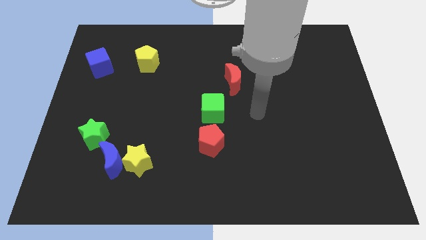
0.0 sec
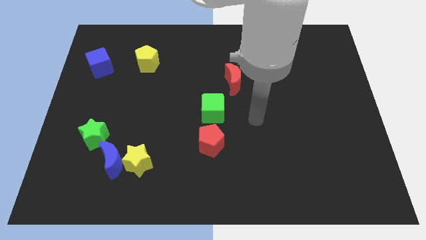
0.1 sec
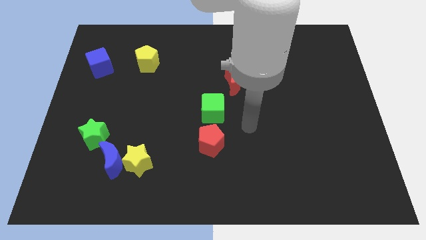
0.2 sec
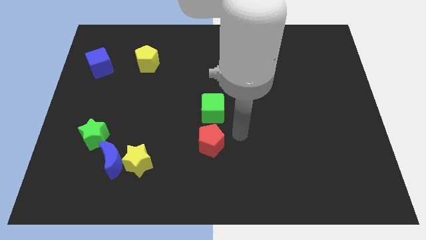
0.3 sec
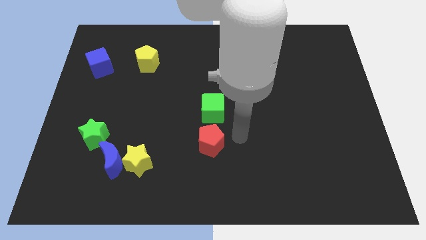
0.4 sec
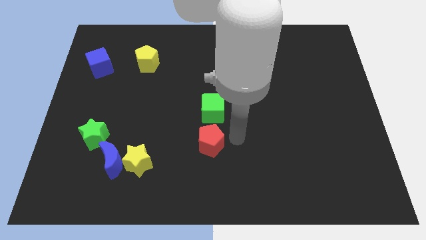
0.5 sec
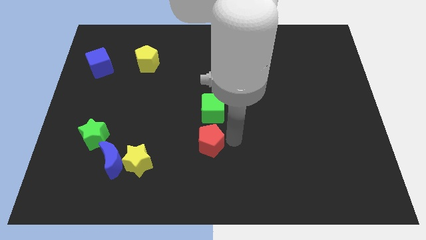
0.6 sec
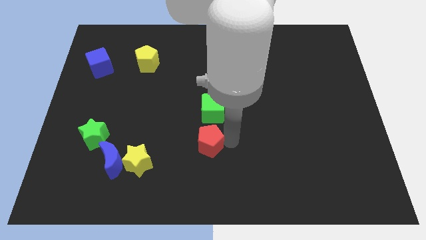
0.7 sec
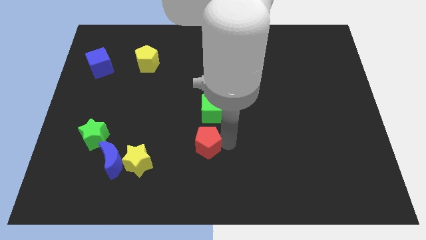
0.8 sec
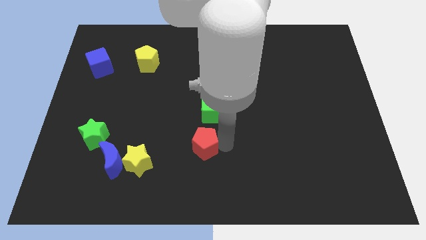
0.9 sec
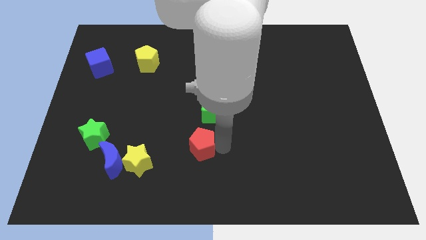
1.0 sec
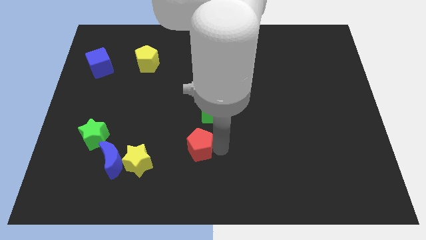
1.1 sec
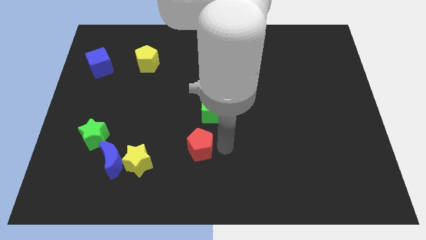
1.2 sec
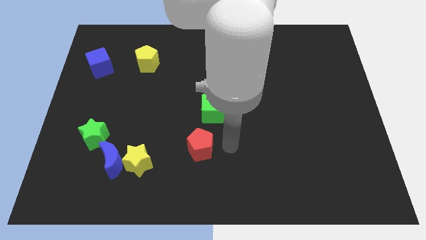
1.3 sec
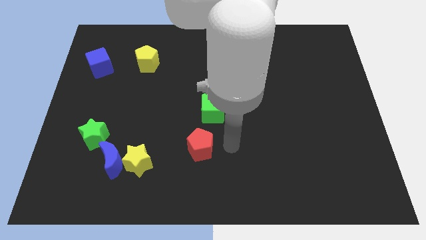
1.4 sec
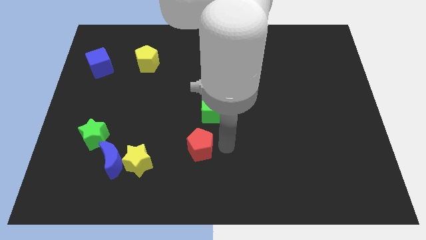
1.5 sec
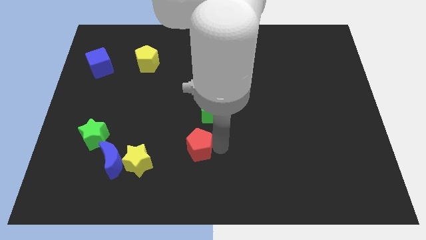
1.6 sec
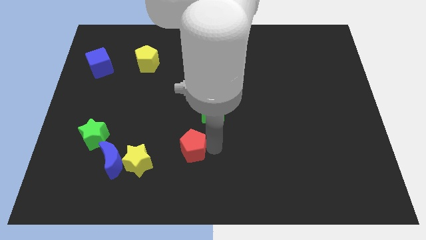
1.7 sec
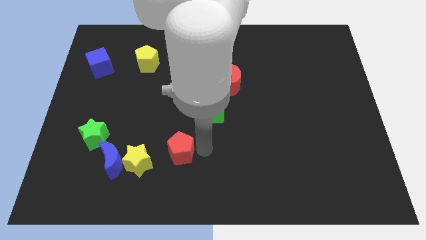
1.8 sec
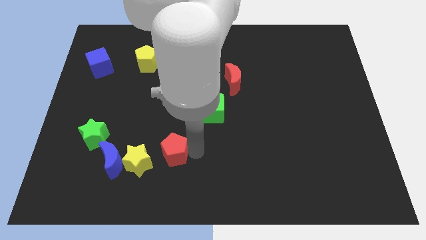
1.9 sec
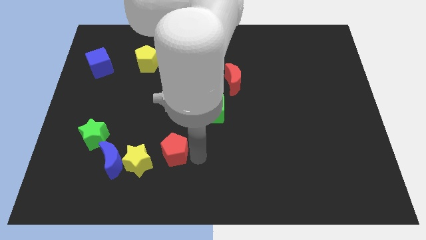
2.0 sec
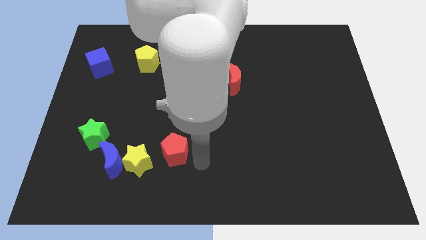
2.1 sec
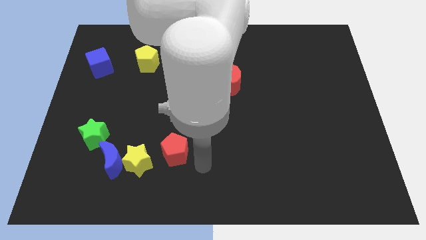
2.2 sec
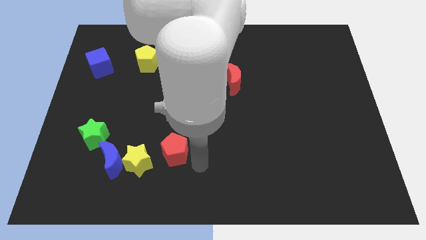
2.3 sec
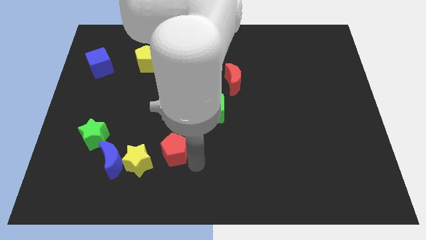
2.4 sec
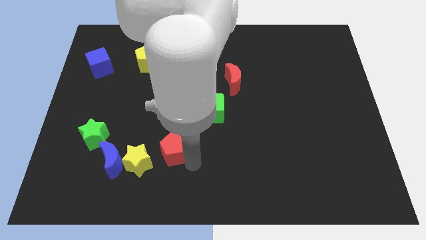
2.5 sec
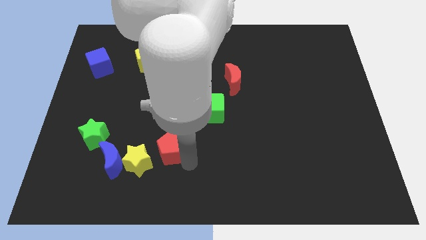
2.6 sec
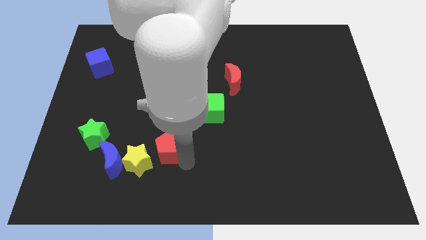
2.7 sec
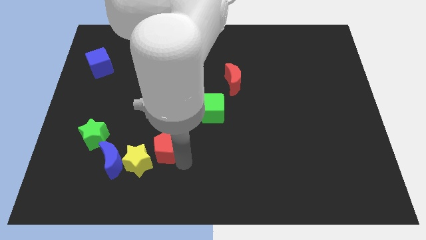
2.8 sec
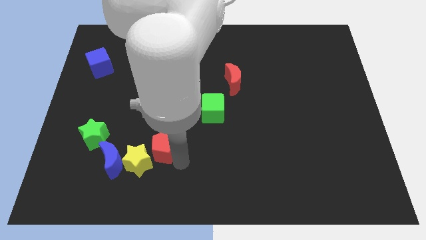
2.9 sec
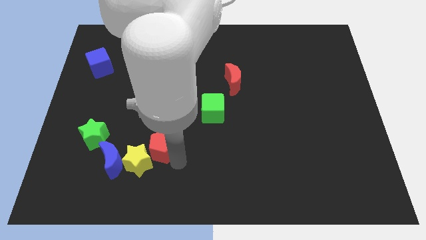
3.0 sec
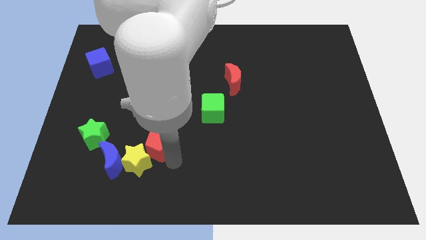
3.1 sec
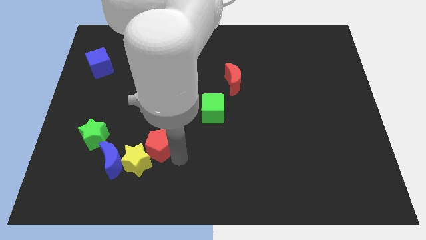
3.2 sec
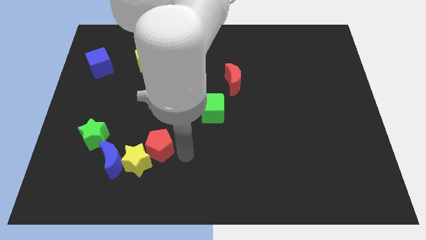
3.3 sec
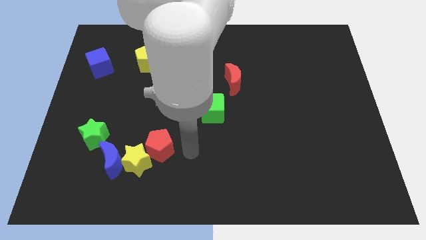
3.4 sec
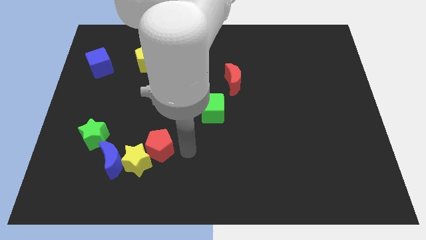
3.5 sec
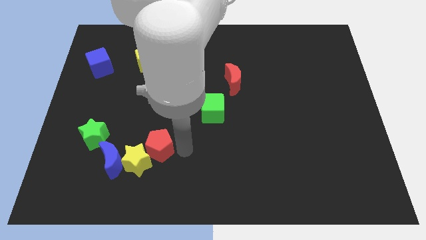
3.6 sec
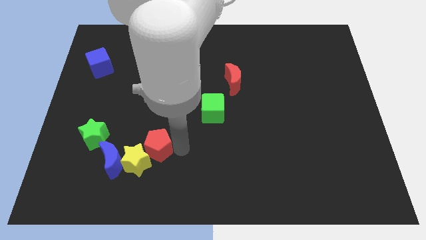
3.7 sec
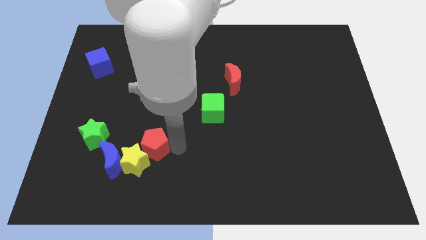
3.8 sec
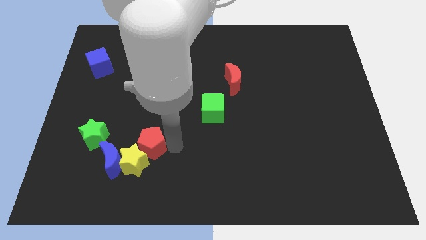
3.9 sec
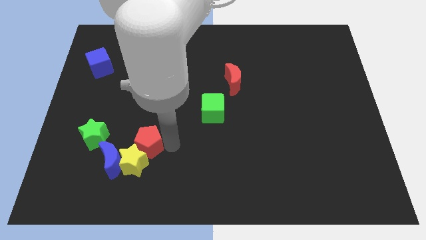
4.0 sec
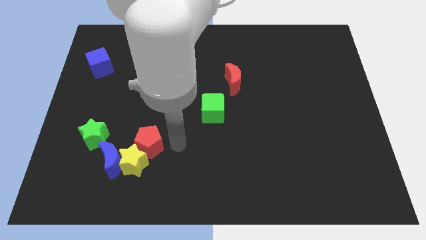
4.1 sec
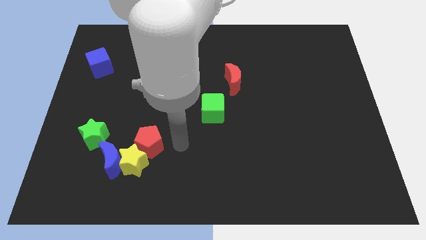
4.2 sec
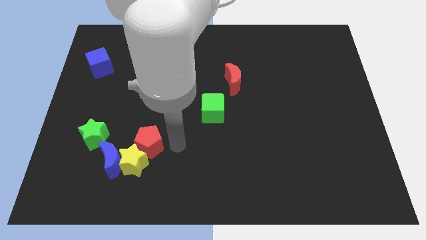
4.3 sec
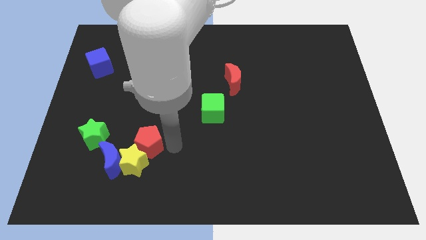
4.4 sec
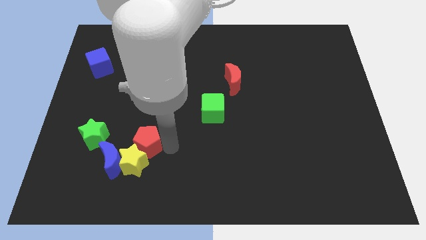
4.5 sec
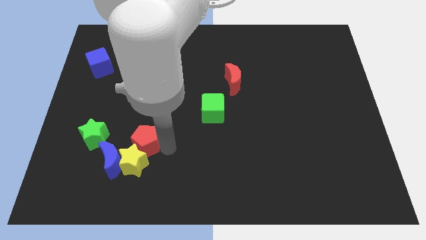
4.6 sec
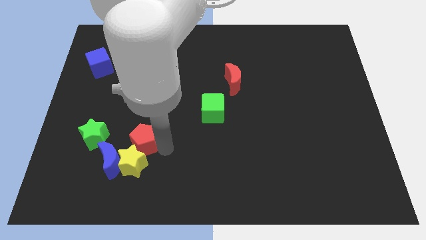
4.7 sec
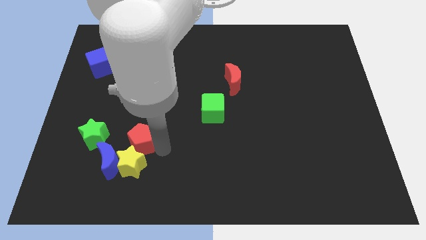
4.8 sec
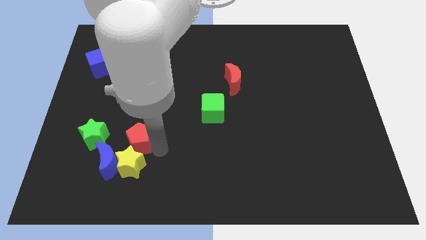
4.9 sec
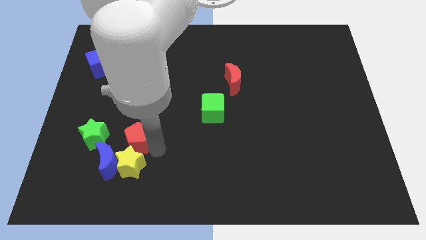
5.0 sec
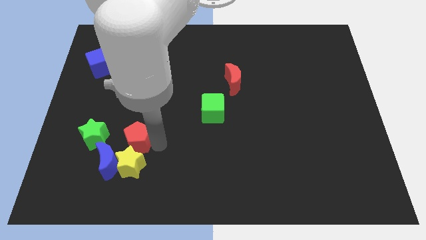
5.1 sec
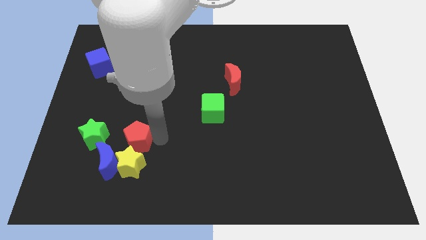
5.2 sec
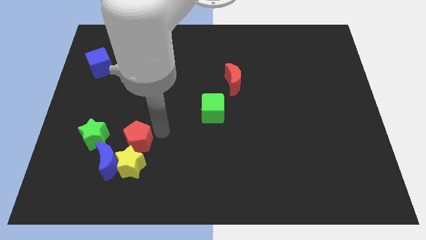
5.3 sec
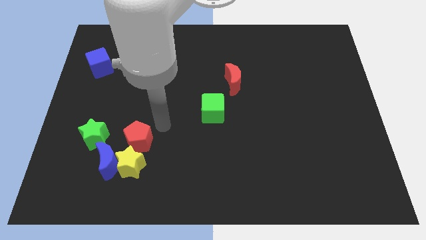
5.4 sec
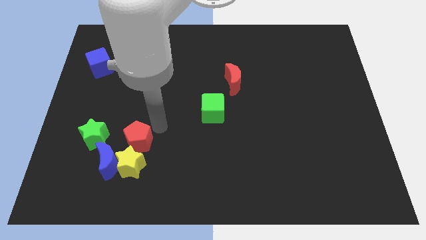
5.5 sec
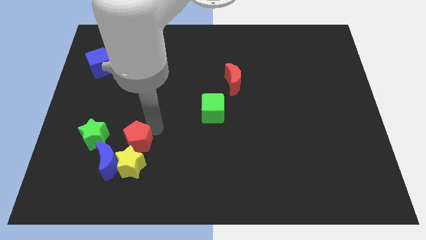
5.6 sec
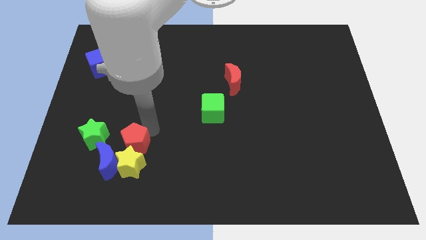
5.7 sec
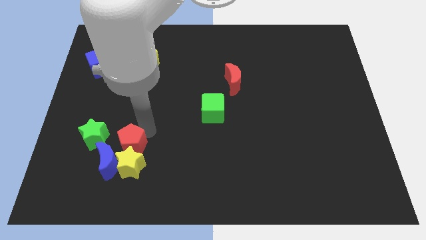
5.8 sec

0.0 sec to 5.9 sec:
slide the red pentagon next to the blue moon

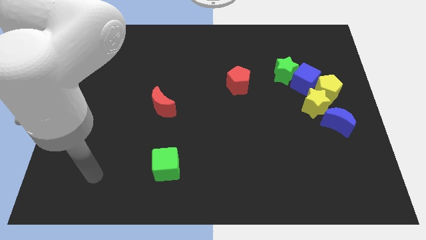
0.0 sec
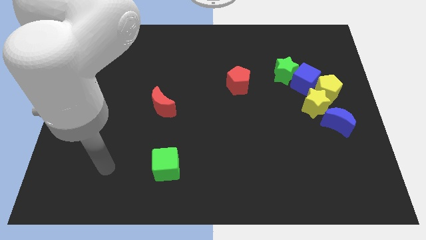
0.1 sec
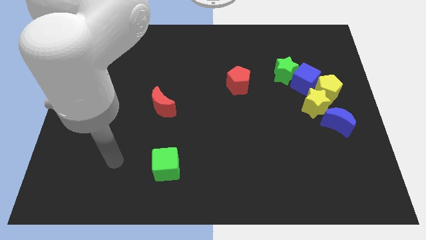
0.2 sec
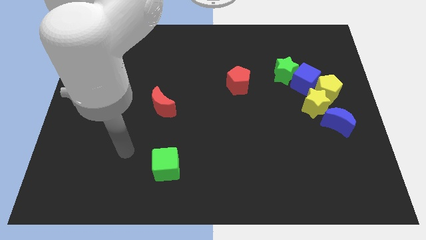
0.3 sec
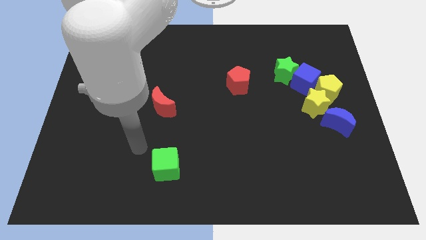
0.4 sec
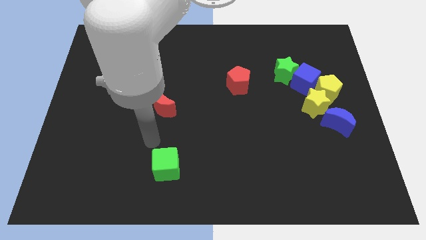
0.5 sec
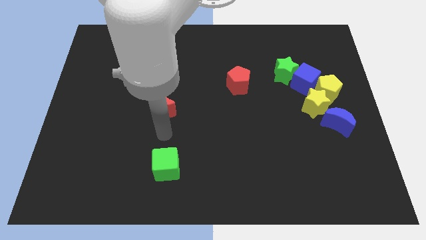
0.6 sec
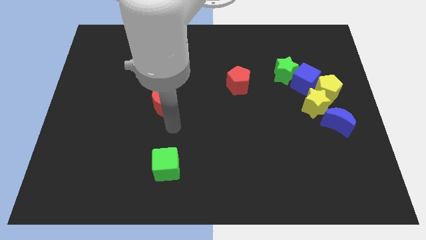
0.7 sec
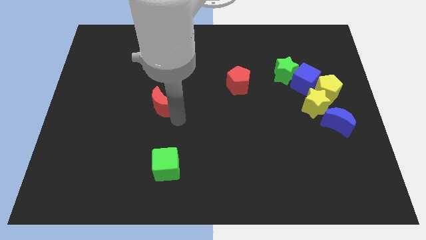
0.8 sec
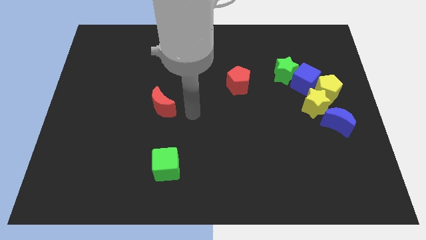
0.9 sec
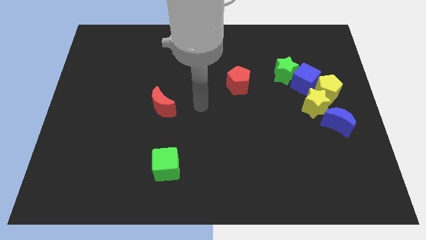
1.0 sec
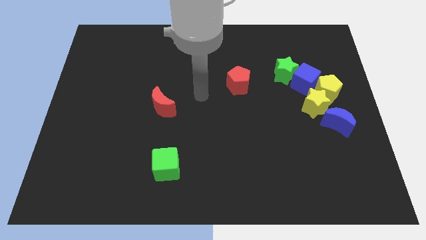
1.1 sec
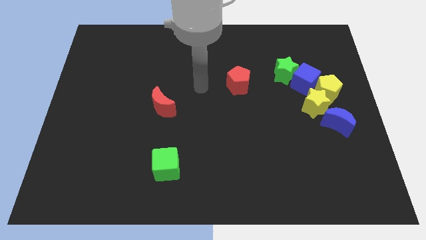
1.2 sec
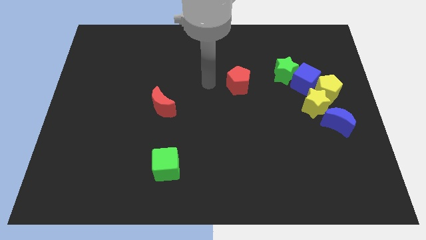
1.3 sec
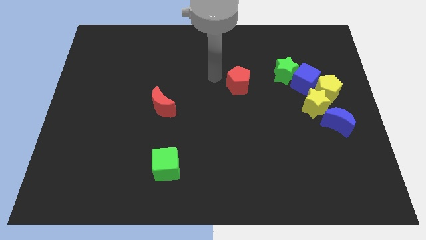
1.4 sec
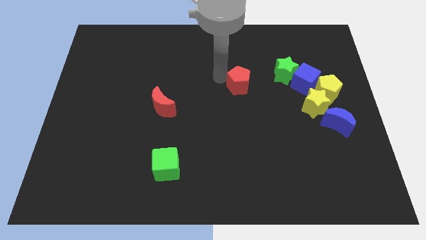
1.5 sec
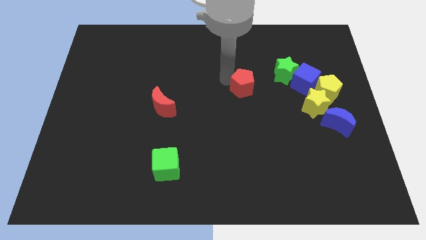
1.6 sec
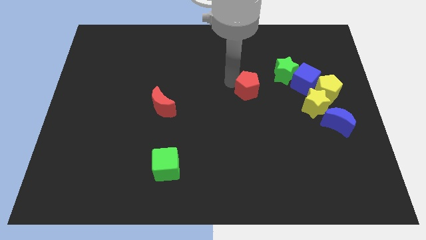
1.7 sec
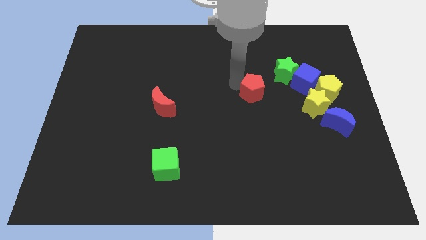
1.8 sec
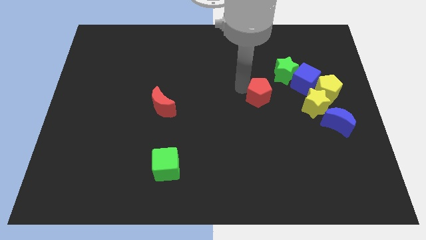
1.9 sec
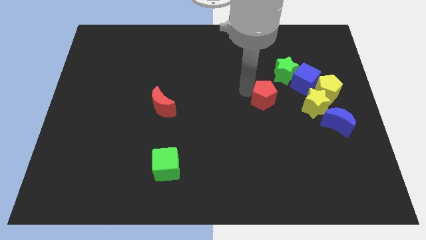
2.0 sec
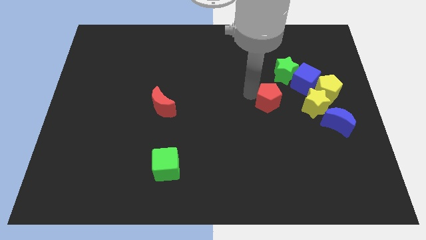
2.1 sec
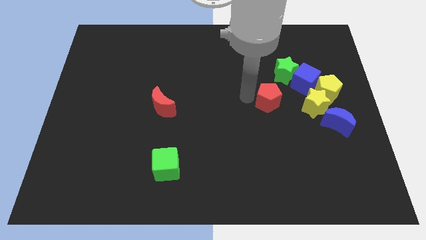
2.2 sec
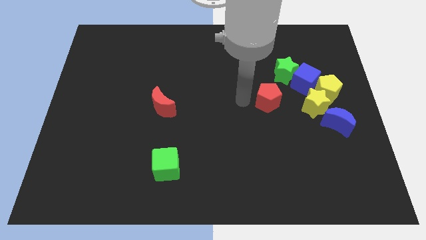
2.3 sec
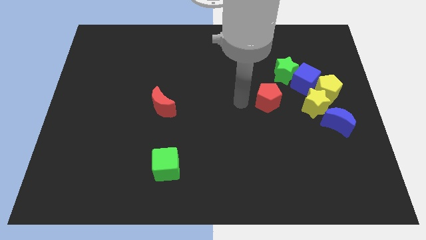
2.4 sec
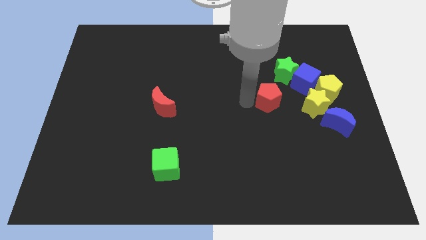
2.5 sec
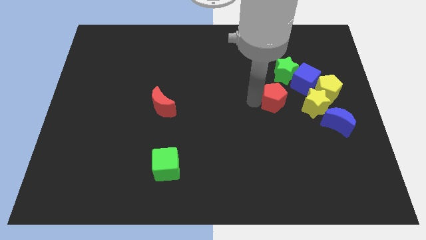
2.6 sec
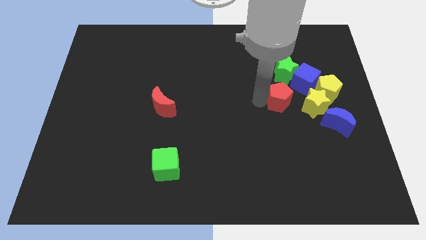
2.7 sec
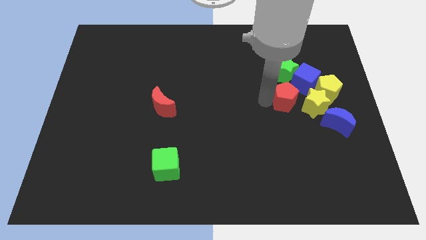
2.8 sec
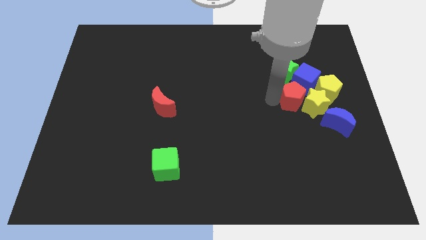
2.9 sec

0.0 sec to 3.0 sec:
move the red pentagon to the yellow star
